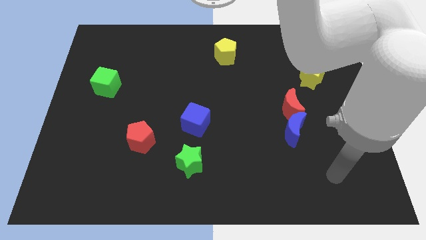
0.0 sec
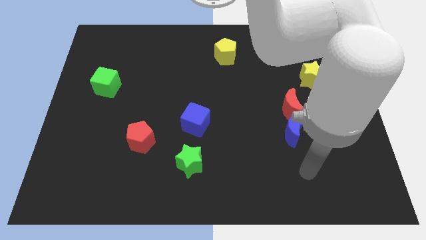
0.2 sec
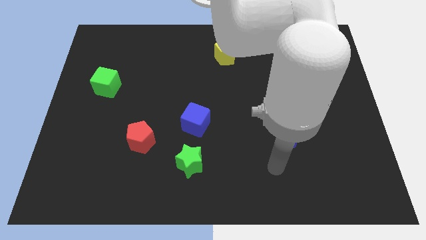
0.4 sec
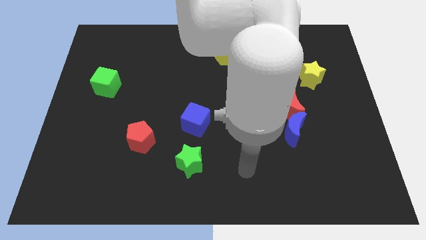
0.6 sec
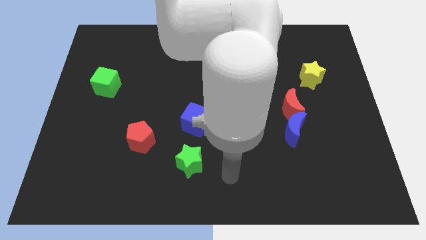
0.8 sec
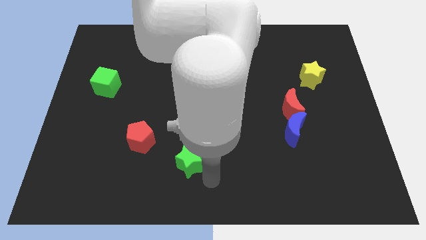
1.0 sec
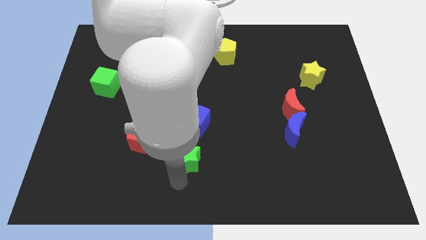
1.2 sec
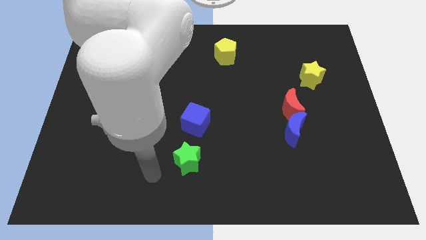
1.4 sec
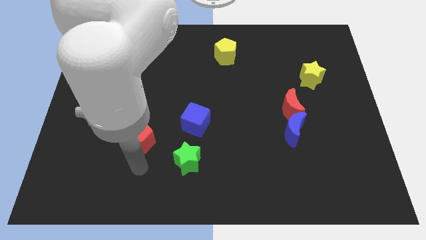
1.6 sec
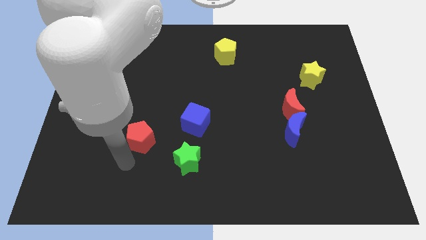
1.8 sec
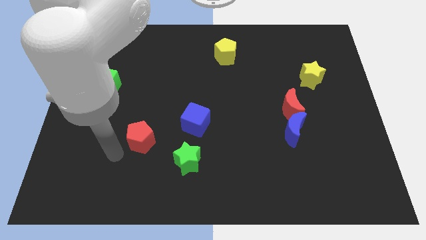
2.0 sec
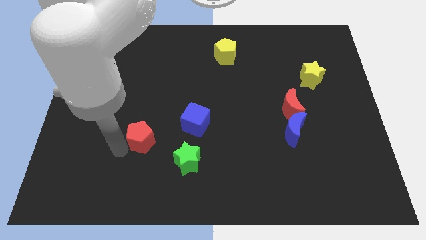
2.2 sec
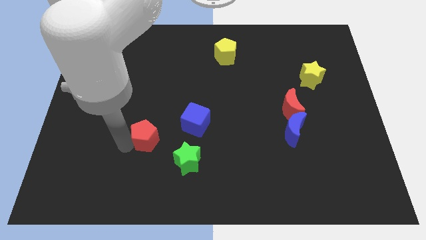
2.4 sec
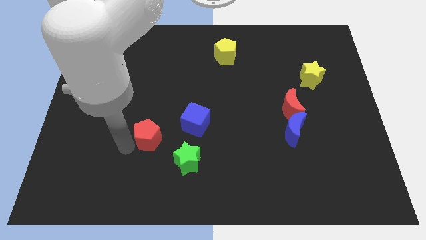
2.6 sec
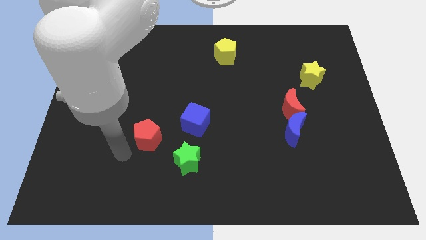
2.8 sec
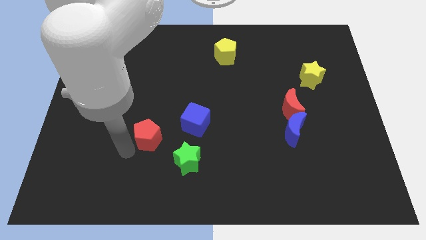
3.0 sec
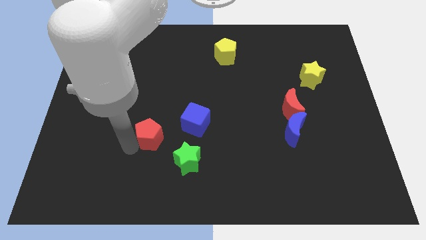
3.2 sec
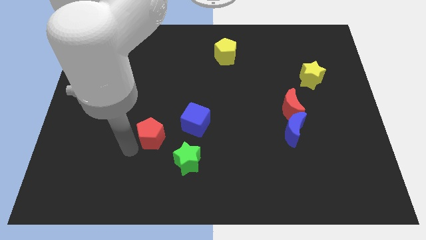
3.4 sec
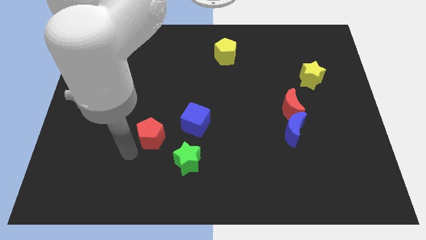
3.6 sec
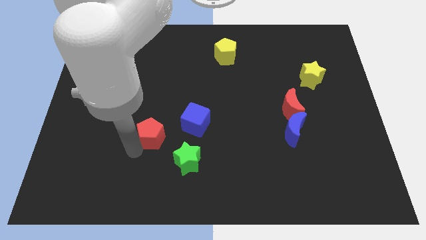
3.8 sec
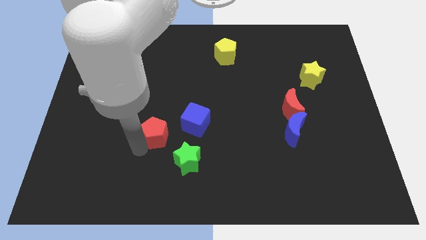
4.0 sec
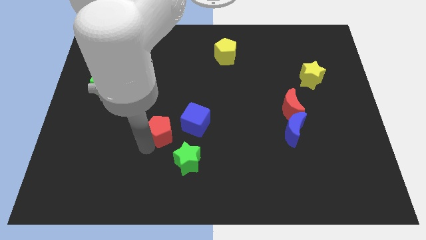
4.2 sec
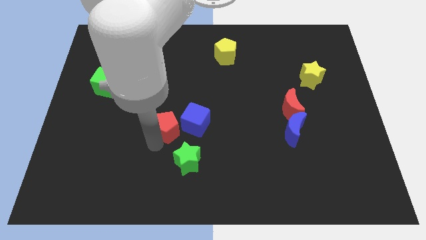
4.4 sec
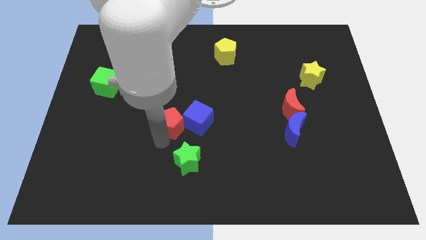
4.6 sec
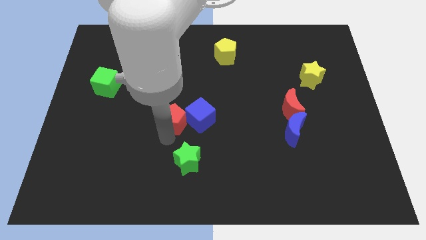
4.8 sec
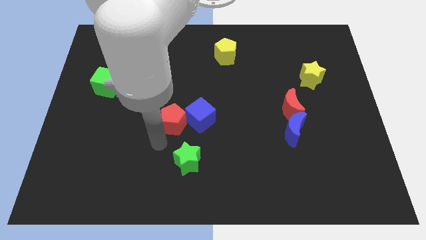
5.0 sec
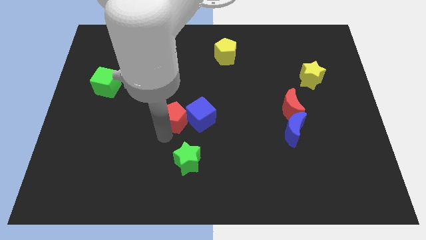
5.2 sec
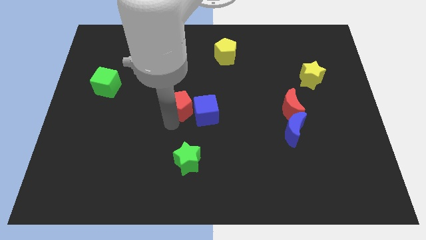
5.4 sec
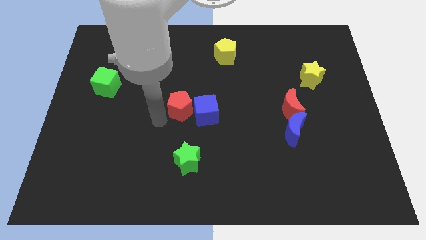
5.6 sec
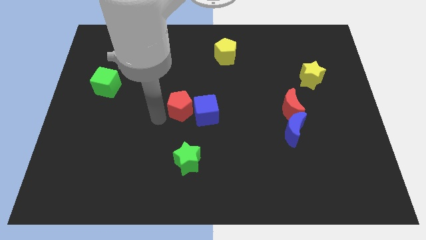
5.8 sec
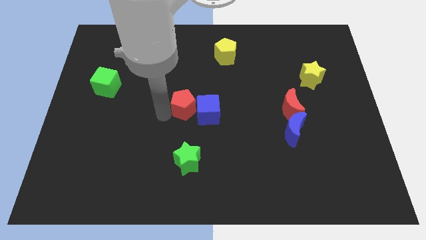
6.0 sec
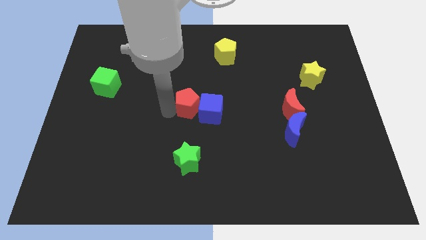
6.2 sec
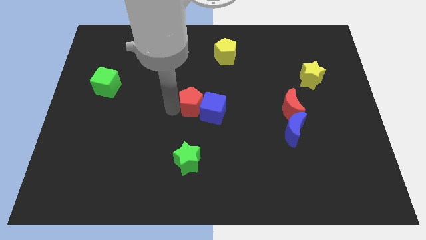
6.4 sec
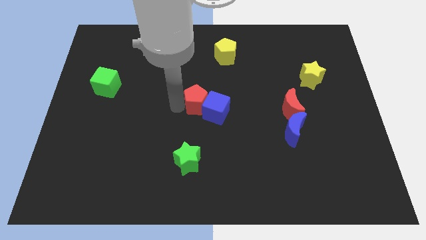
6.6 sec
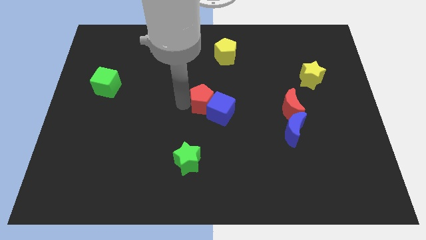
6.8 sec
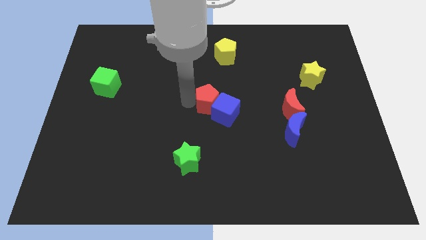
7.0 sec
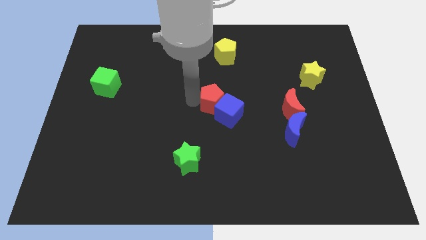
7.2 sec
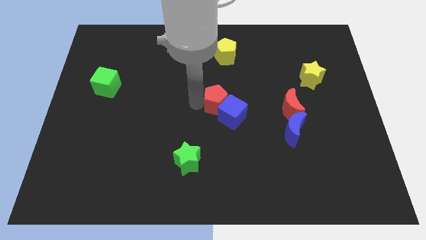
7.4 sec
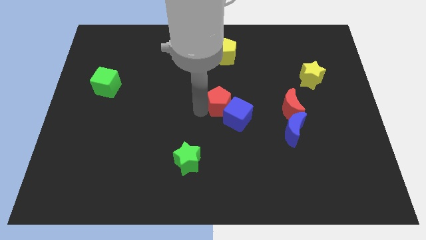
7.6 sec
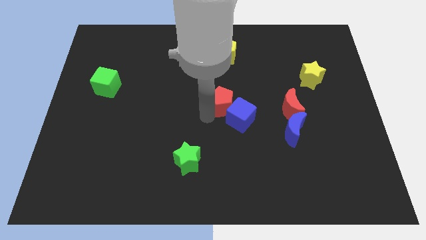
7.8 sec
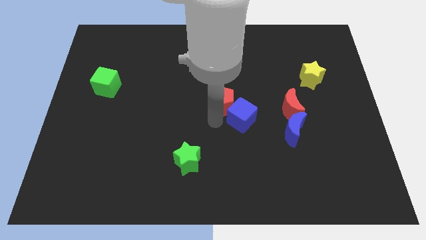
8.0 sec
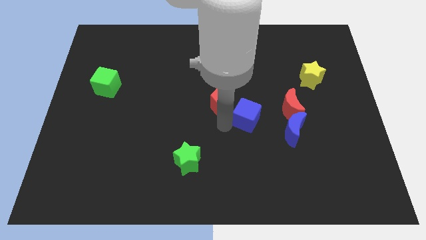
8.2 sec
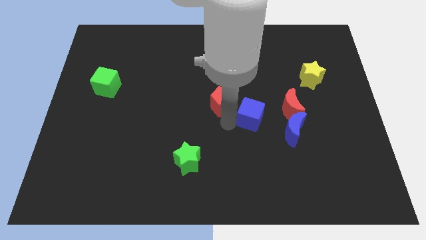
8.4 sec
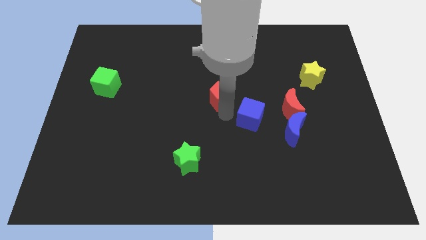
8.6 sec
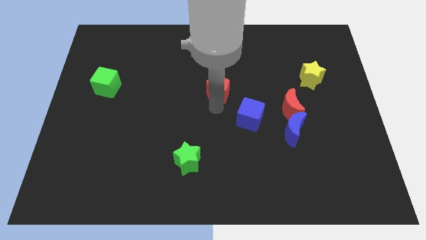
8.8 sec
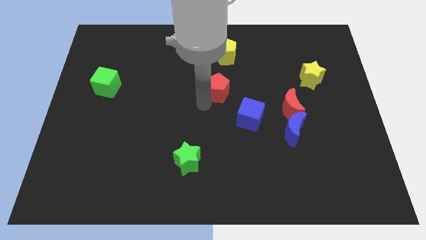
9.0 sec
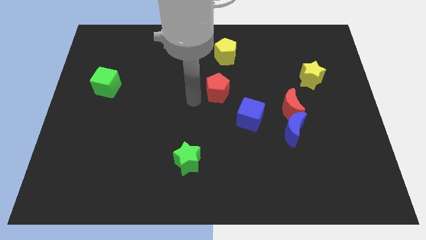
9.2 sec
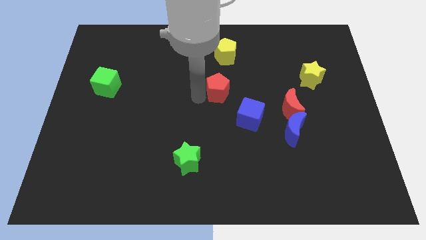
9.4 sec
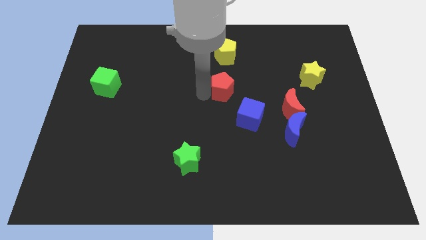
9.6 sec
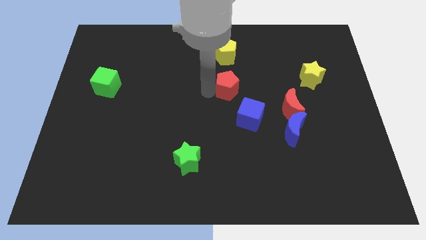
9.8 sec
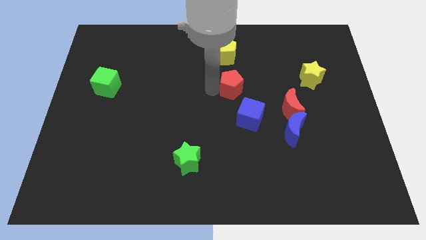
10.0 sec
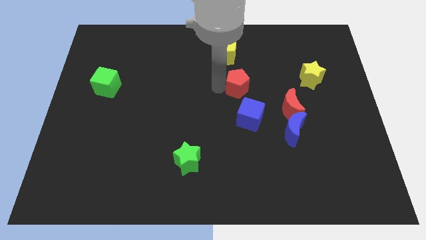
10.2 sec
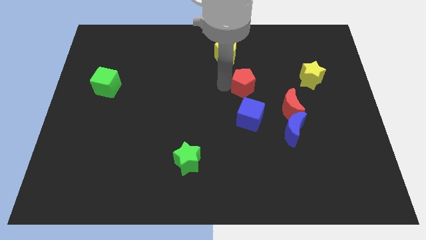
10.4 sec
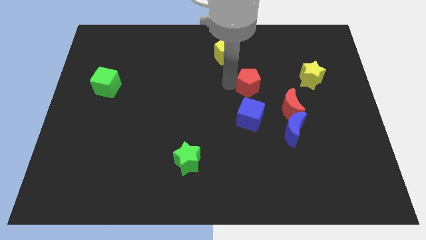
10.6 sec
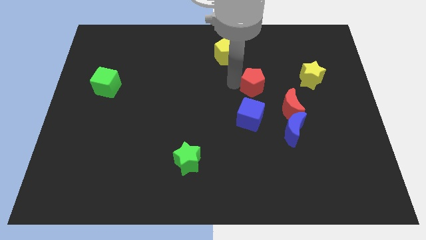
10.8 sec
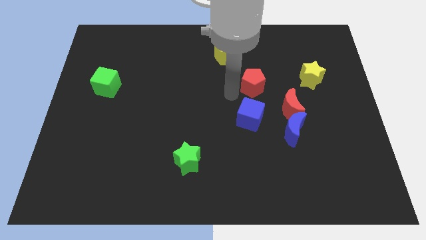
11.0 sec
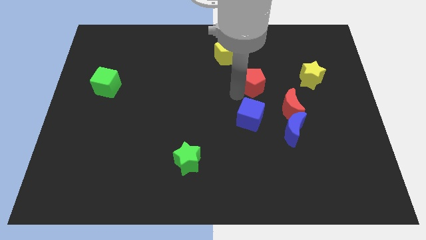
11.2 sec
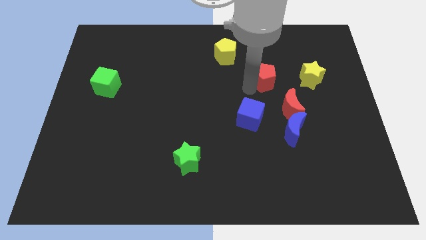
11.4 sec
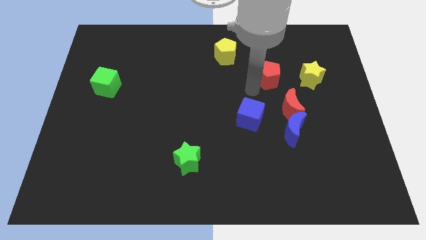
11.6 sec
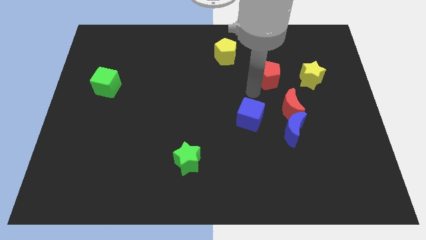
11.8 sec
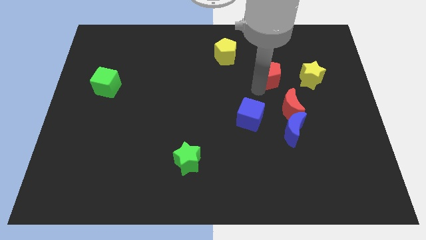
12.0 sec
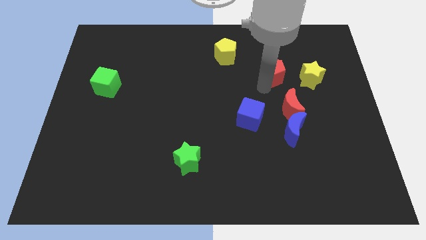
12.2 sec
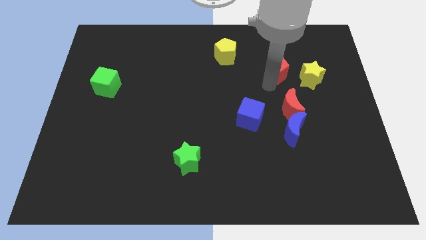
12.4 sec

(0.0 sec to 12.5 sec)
move the red pentagon diagonally up and to the left of the yellow star

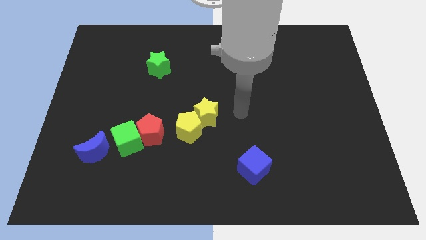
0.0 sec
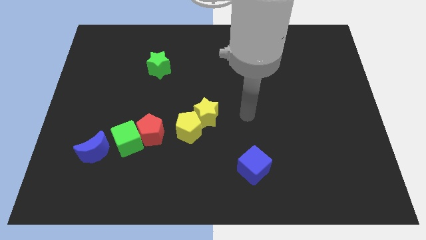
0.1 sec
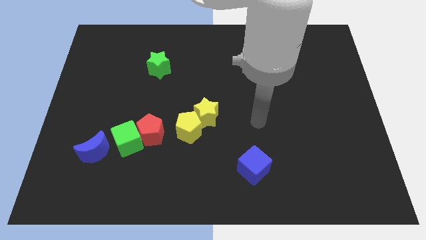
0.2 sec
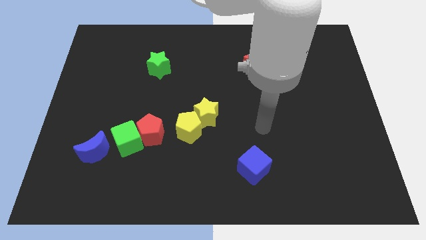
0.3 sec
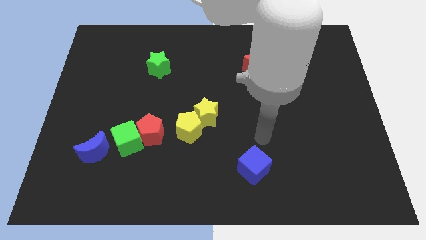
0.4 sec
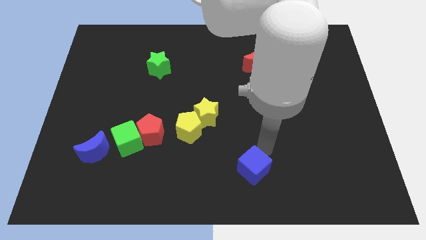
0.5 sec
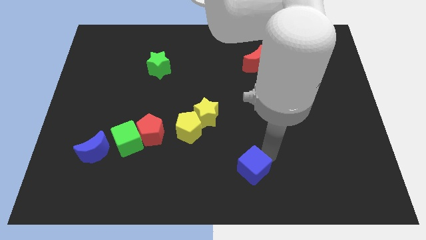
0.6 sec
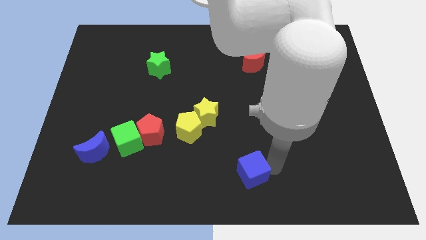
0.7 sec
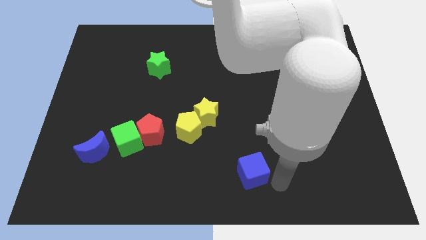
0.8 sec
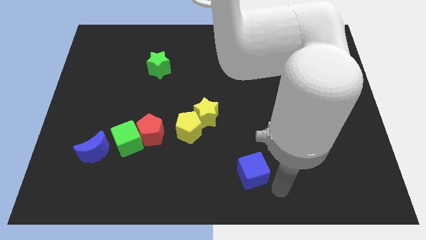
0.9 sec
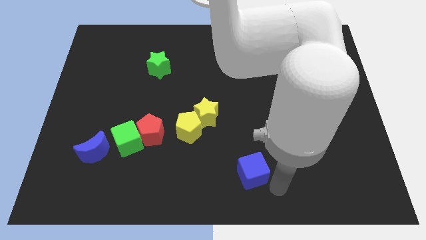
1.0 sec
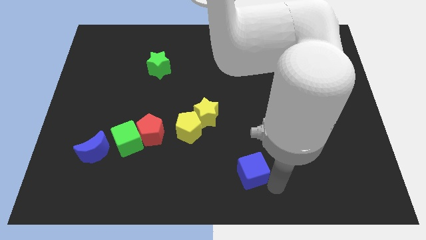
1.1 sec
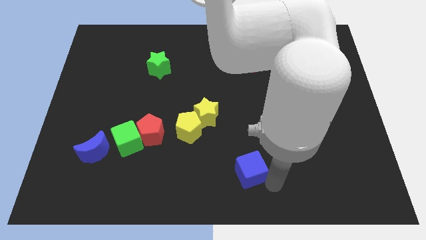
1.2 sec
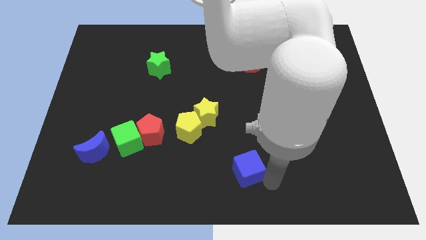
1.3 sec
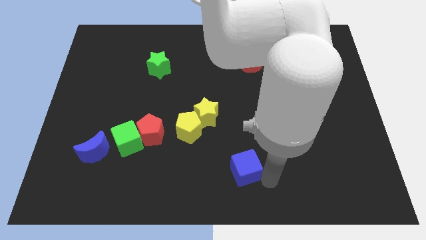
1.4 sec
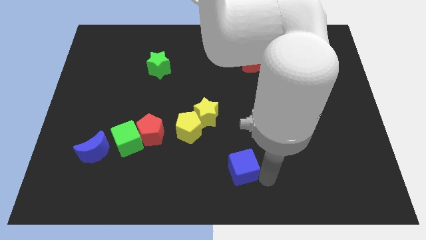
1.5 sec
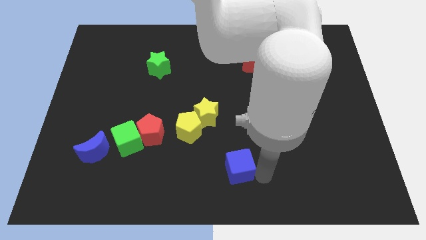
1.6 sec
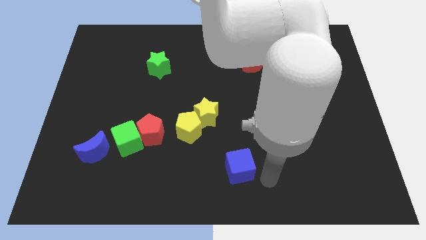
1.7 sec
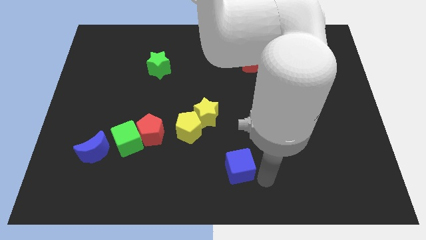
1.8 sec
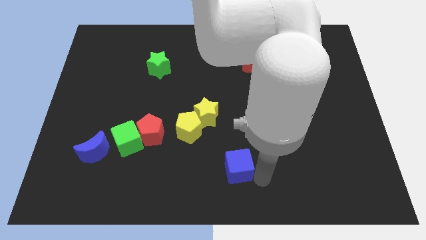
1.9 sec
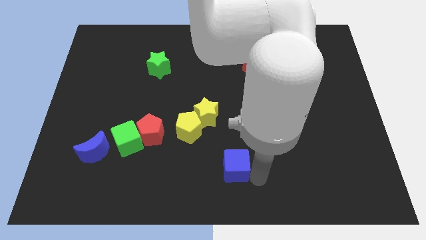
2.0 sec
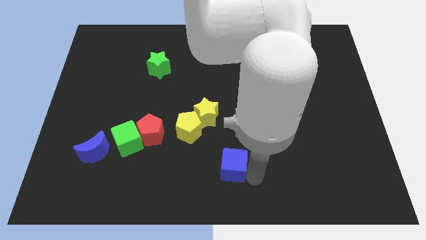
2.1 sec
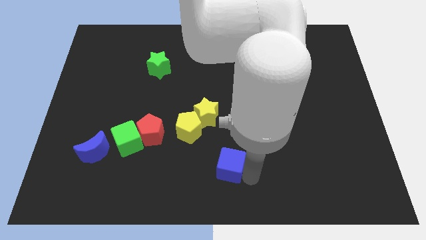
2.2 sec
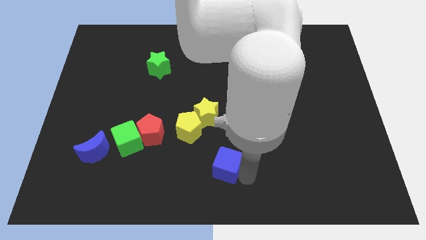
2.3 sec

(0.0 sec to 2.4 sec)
slide the blue cube below the yellow star
